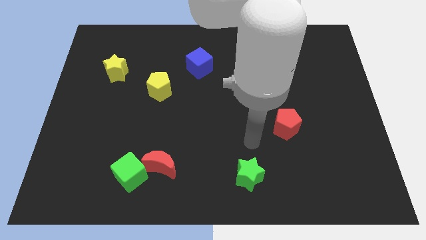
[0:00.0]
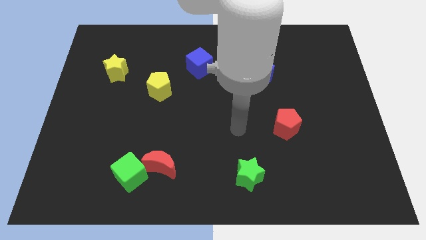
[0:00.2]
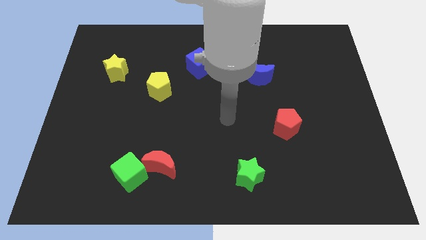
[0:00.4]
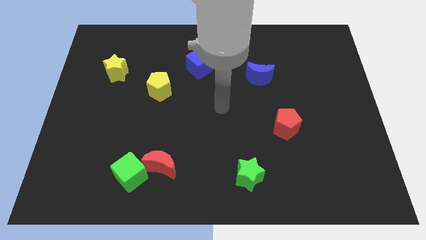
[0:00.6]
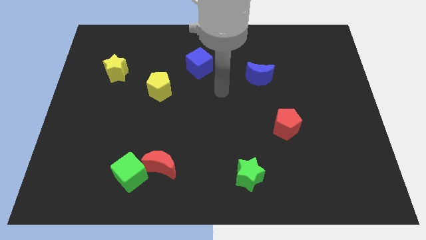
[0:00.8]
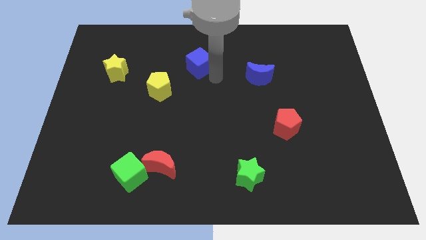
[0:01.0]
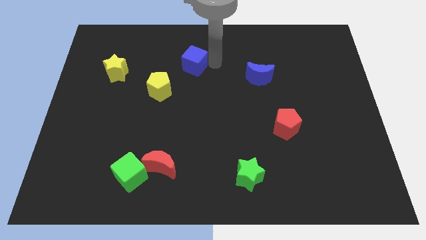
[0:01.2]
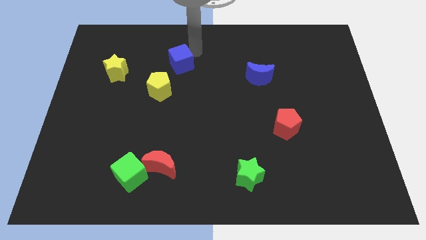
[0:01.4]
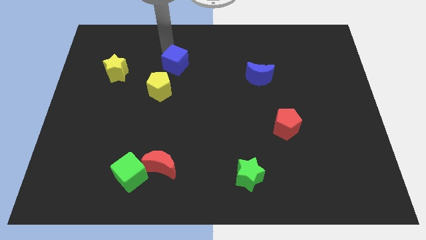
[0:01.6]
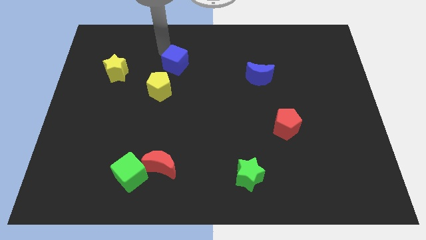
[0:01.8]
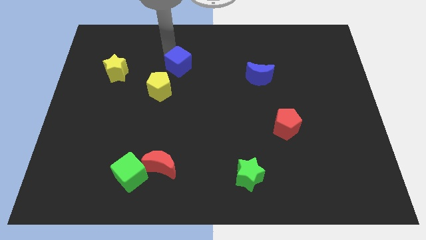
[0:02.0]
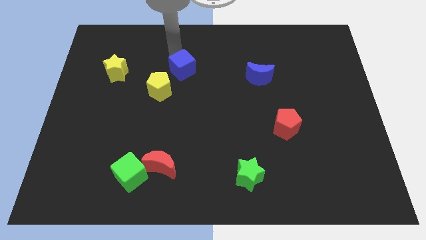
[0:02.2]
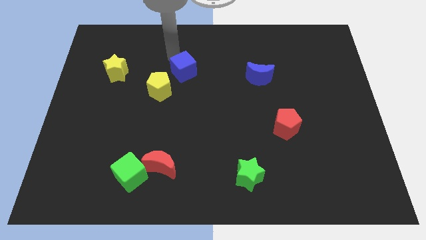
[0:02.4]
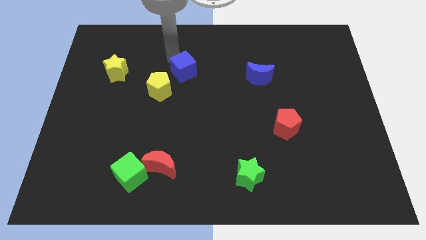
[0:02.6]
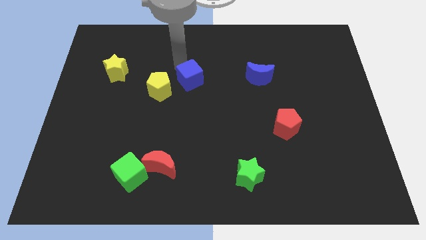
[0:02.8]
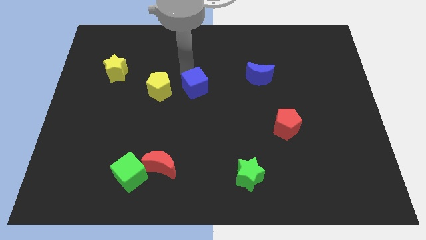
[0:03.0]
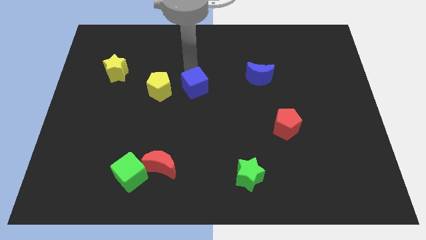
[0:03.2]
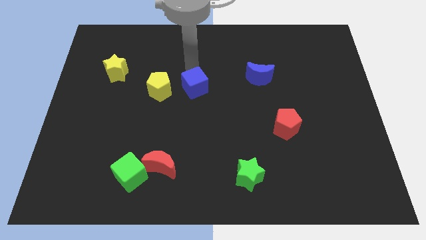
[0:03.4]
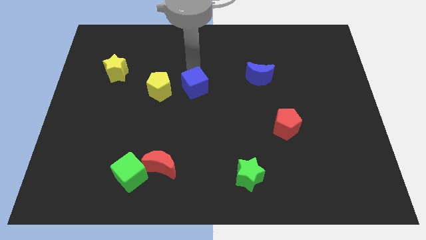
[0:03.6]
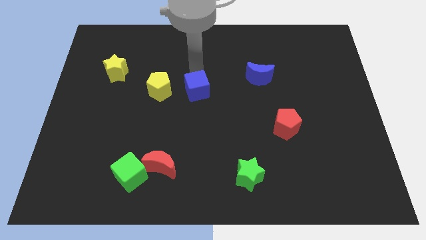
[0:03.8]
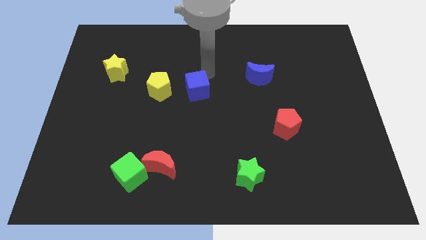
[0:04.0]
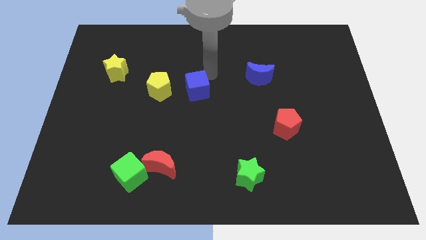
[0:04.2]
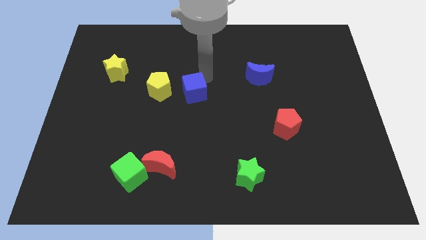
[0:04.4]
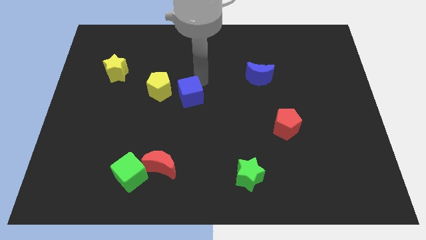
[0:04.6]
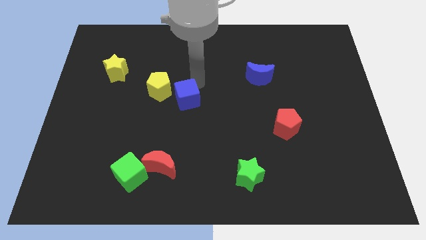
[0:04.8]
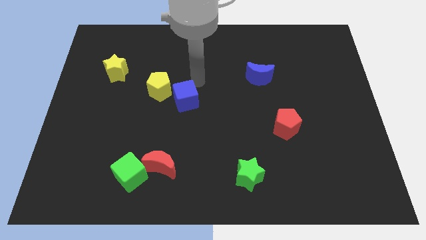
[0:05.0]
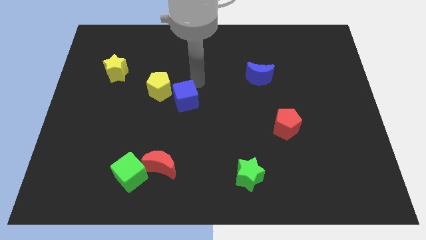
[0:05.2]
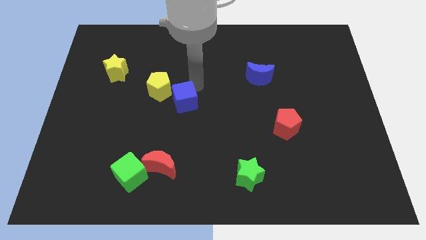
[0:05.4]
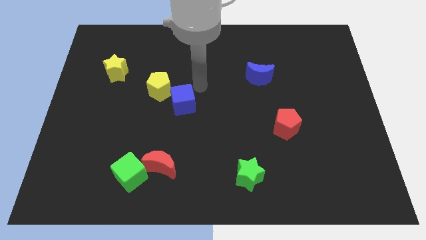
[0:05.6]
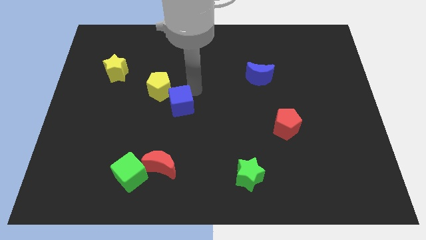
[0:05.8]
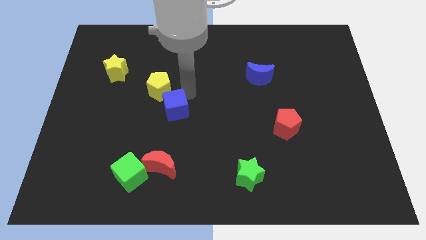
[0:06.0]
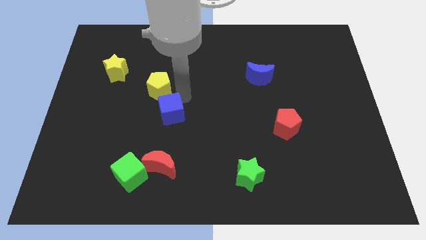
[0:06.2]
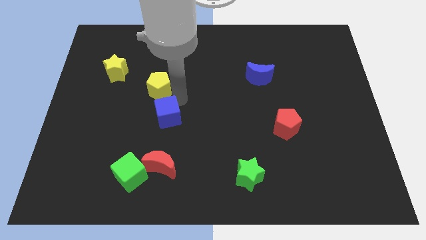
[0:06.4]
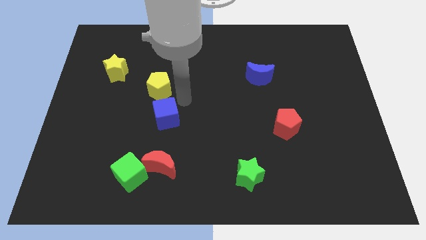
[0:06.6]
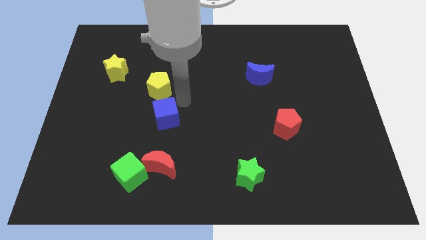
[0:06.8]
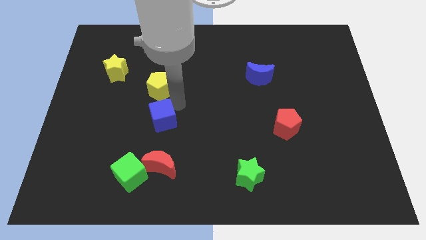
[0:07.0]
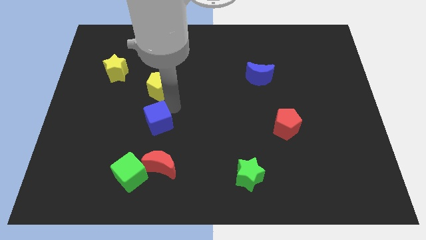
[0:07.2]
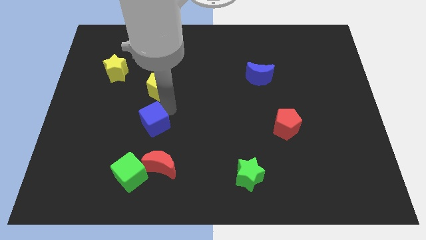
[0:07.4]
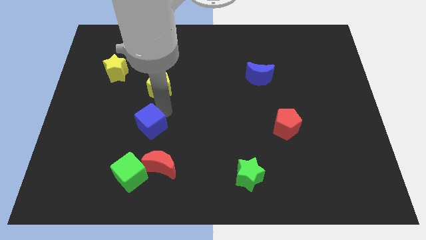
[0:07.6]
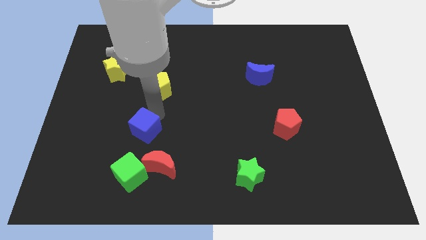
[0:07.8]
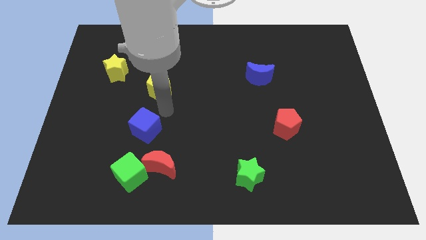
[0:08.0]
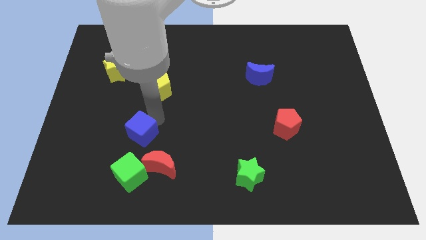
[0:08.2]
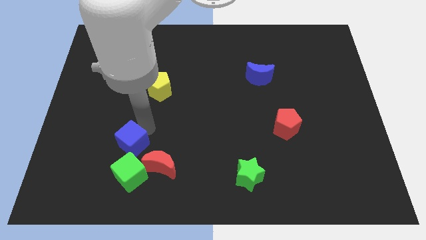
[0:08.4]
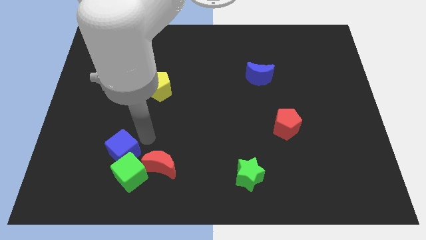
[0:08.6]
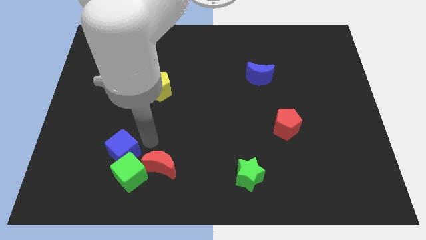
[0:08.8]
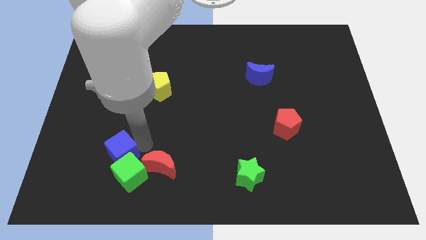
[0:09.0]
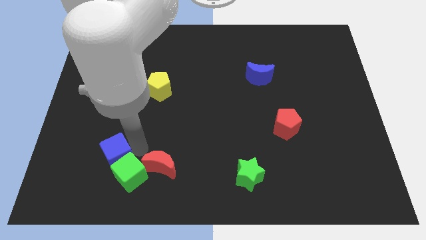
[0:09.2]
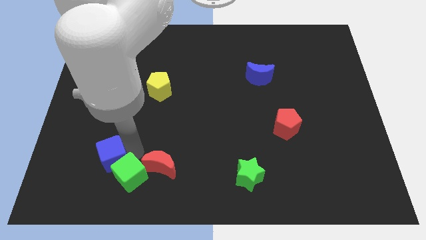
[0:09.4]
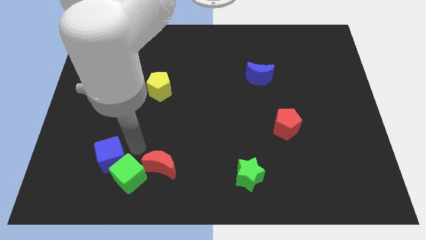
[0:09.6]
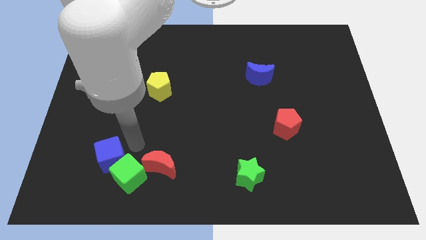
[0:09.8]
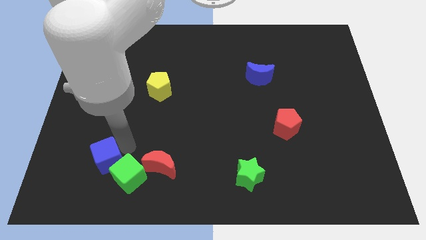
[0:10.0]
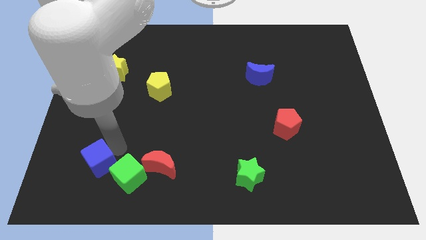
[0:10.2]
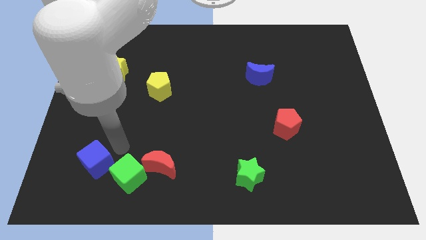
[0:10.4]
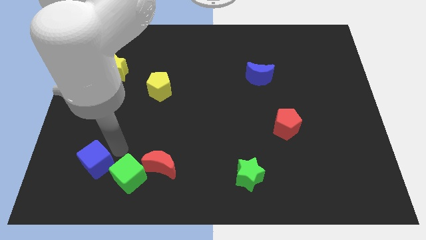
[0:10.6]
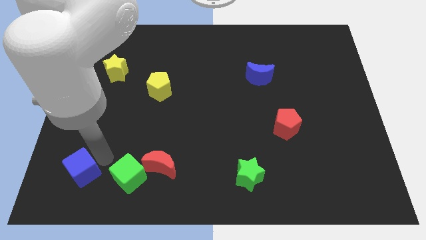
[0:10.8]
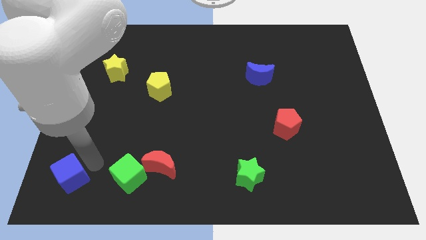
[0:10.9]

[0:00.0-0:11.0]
push the blue cube to the bottom left

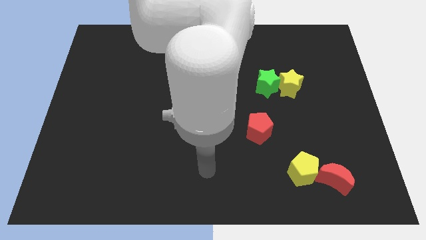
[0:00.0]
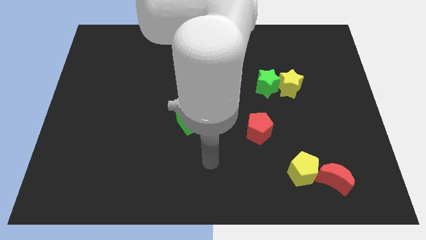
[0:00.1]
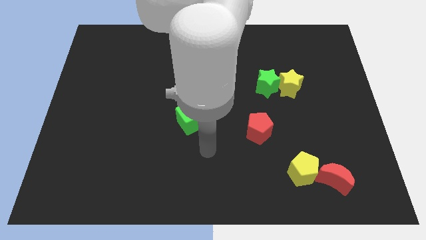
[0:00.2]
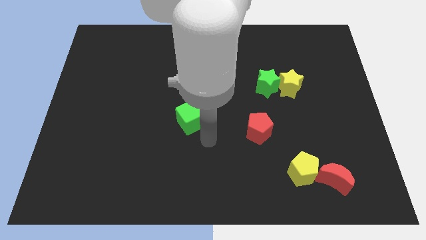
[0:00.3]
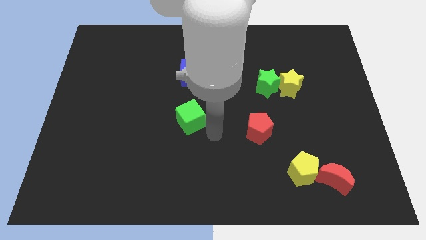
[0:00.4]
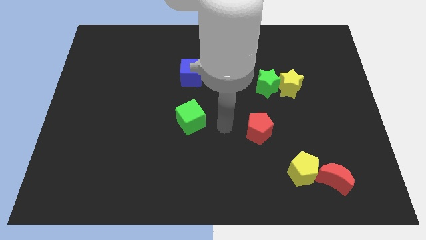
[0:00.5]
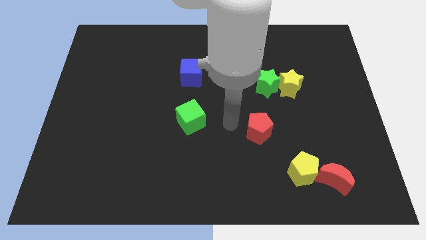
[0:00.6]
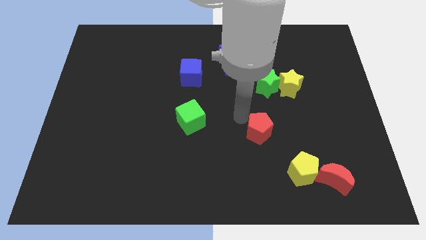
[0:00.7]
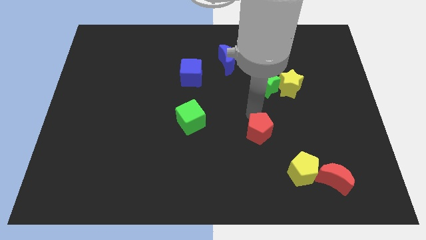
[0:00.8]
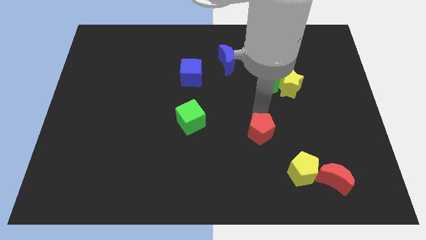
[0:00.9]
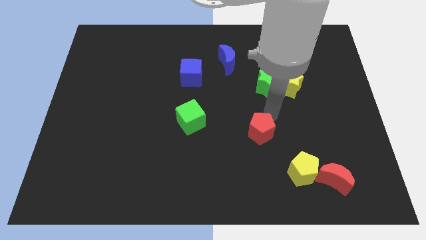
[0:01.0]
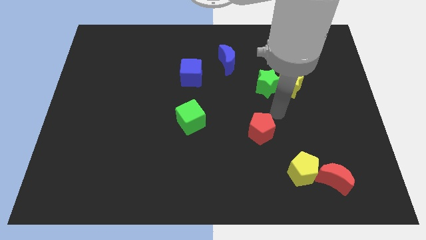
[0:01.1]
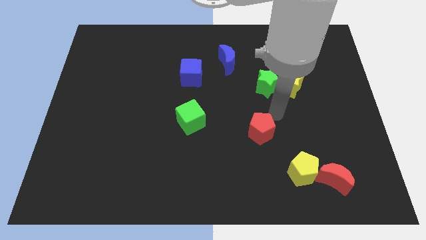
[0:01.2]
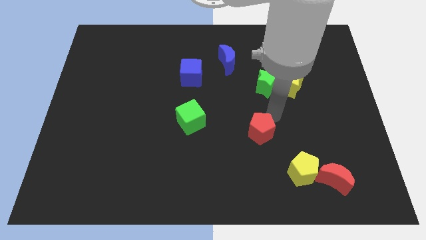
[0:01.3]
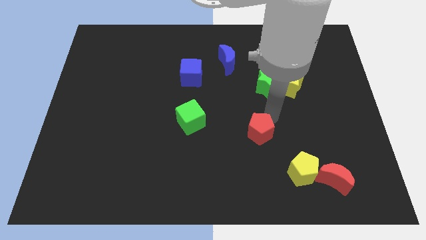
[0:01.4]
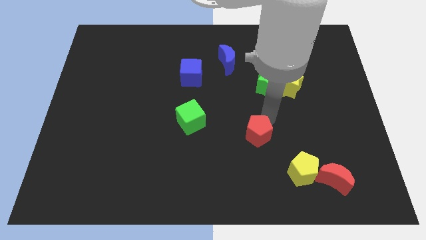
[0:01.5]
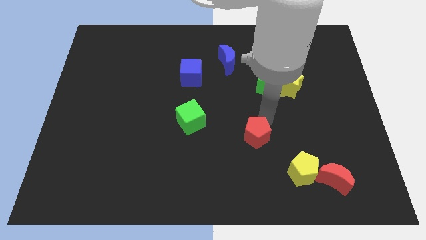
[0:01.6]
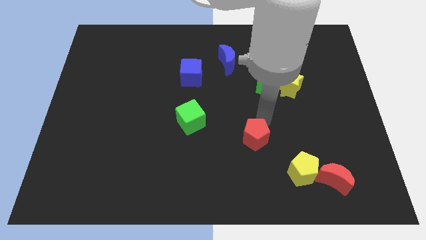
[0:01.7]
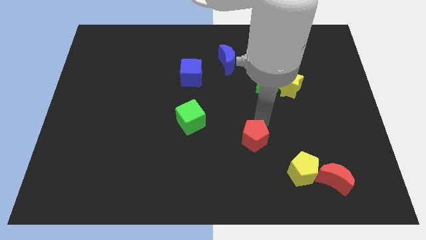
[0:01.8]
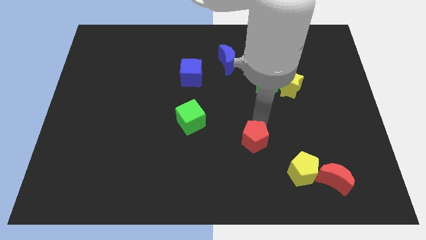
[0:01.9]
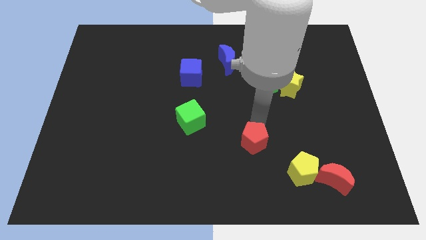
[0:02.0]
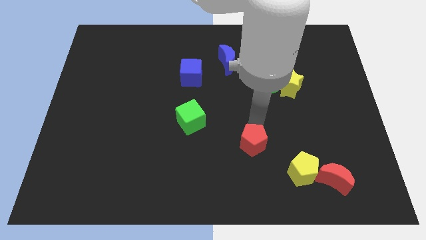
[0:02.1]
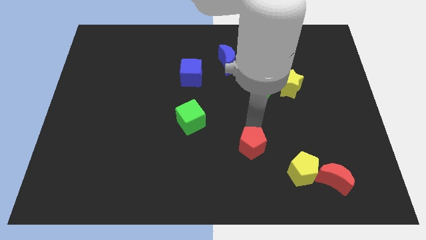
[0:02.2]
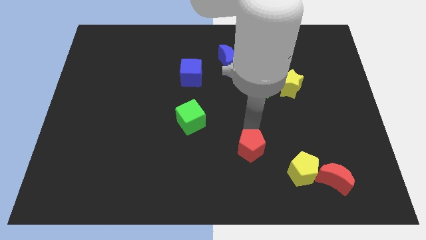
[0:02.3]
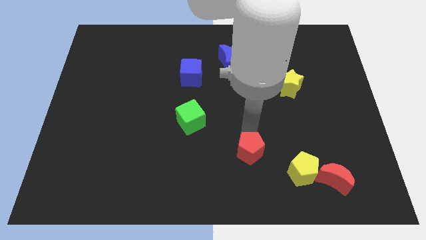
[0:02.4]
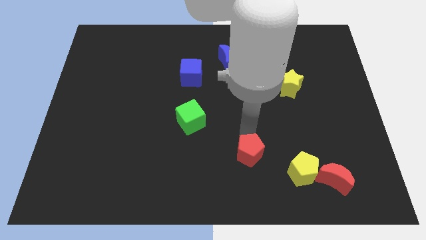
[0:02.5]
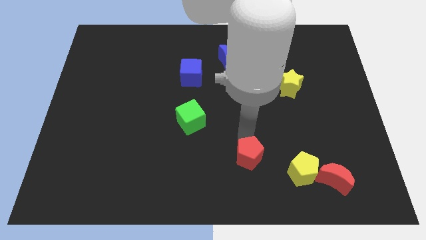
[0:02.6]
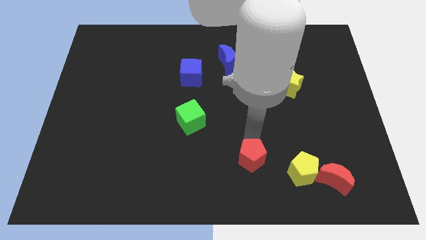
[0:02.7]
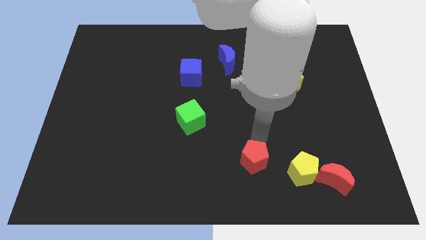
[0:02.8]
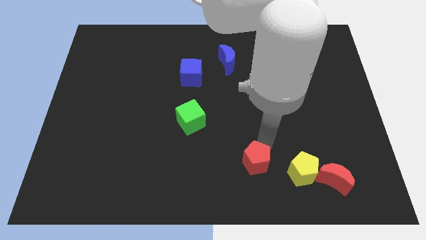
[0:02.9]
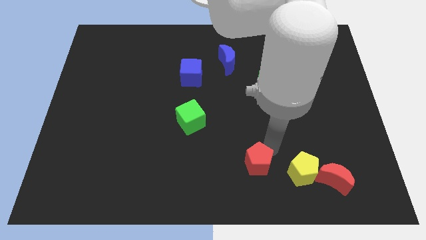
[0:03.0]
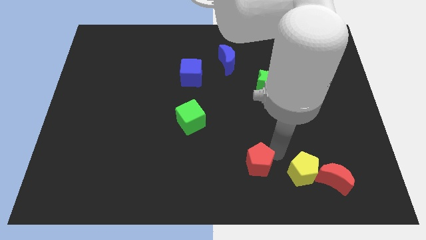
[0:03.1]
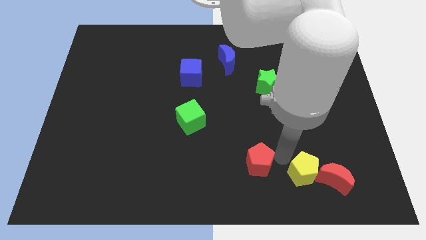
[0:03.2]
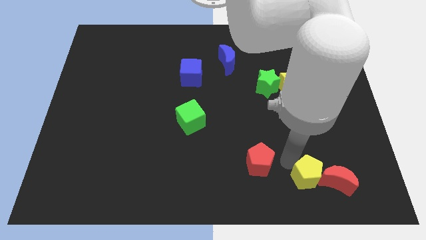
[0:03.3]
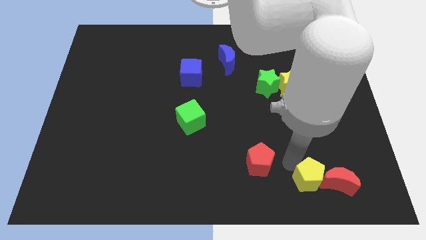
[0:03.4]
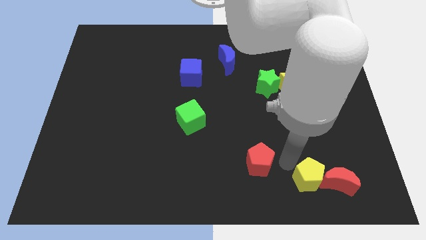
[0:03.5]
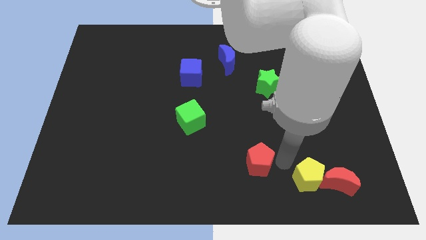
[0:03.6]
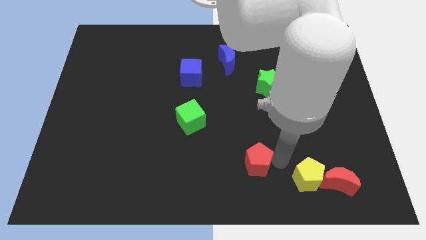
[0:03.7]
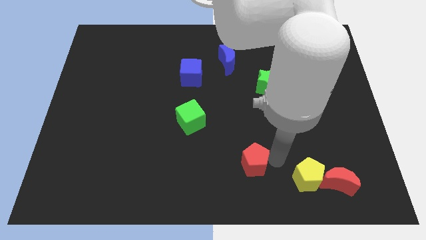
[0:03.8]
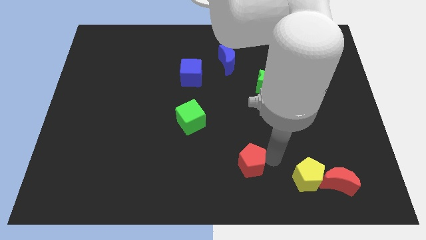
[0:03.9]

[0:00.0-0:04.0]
push the red pentagon to the bottom
